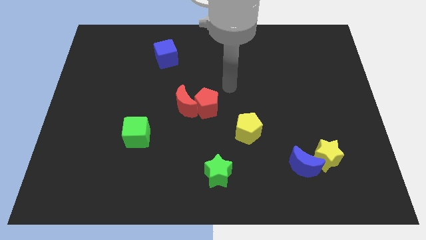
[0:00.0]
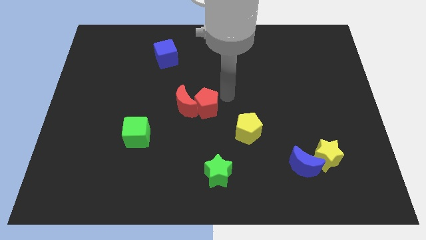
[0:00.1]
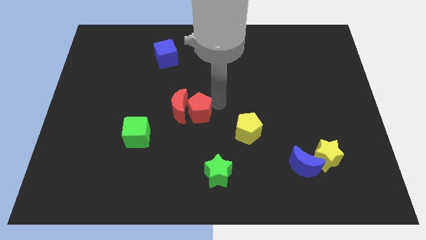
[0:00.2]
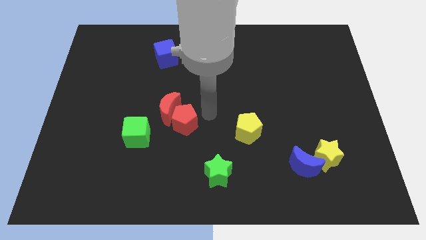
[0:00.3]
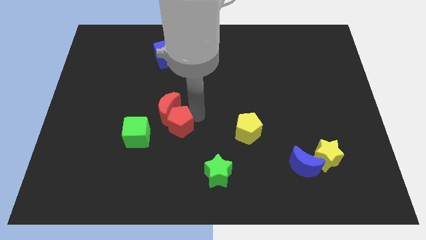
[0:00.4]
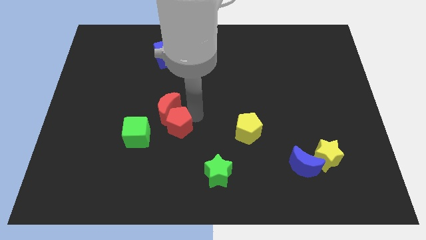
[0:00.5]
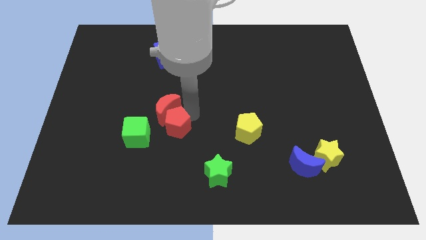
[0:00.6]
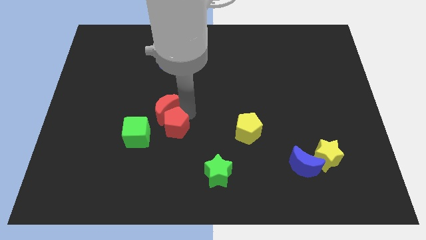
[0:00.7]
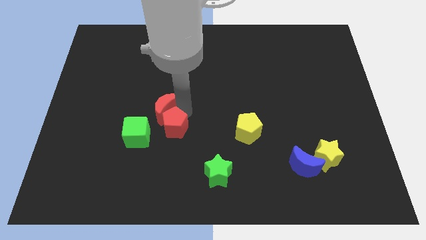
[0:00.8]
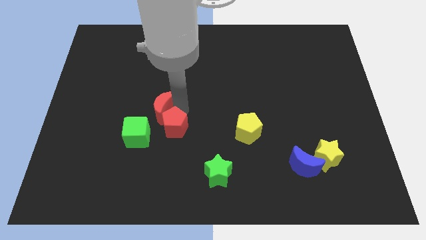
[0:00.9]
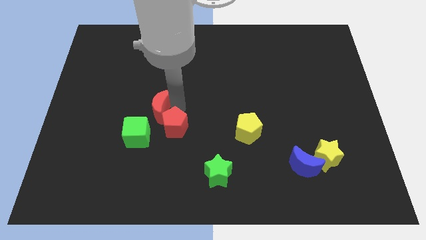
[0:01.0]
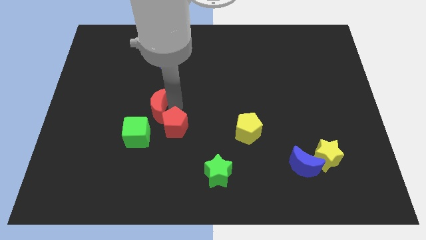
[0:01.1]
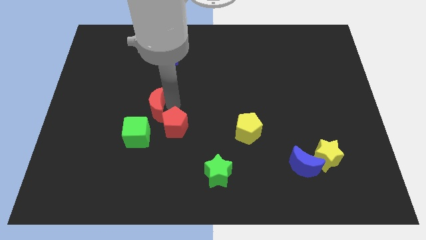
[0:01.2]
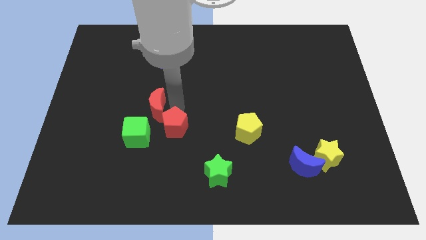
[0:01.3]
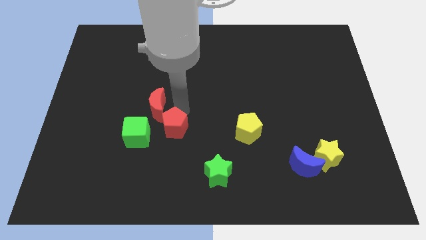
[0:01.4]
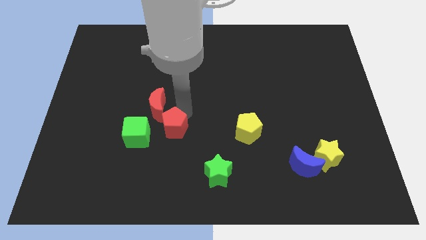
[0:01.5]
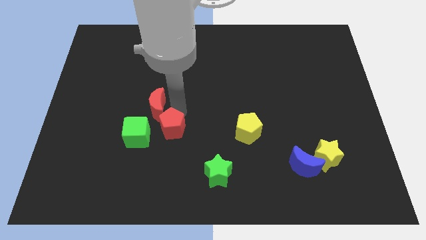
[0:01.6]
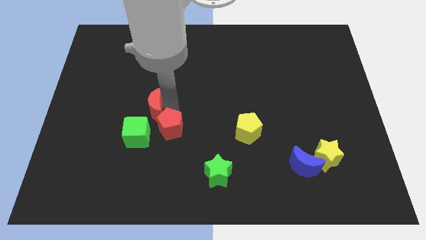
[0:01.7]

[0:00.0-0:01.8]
slightly move the red moon left

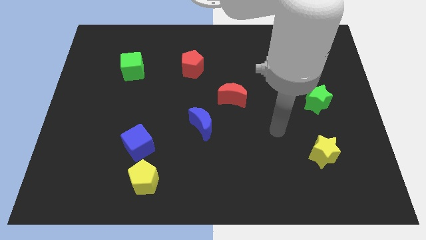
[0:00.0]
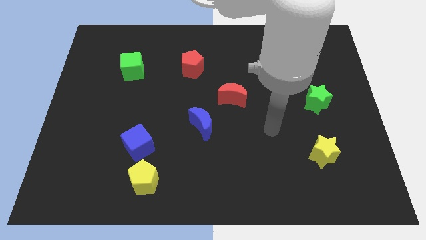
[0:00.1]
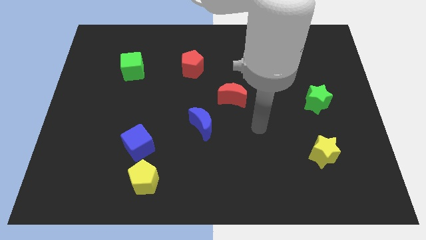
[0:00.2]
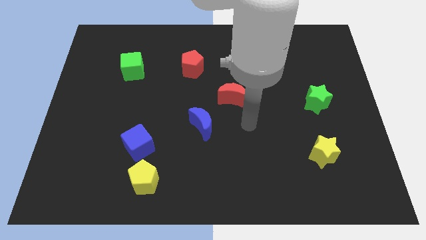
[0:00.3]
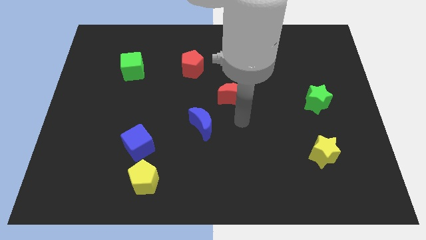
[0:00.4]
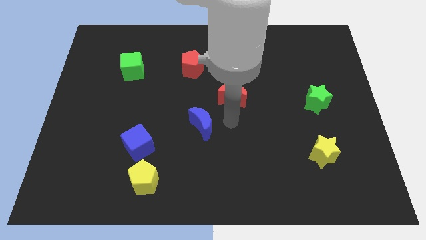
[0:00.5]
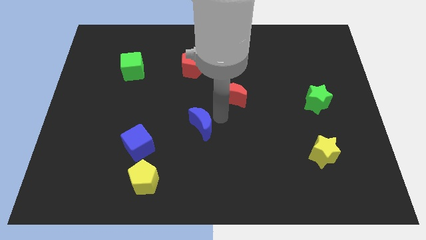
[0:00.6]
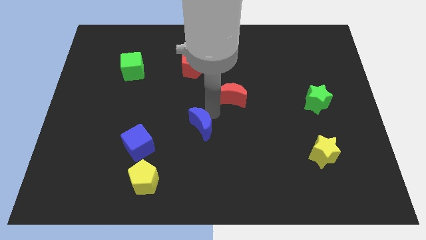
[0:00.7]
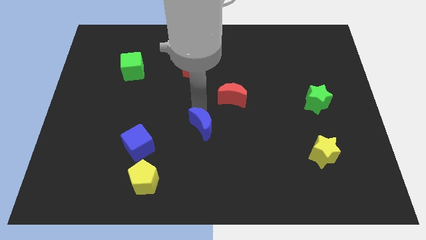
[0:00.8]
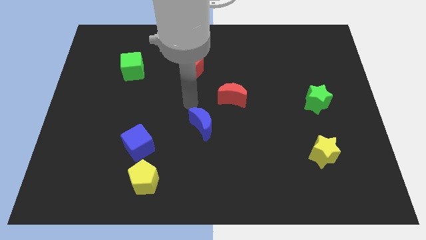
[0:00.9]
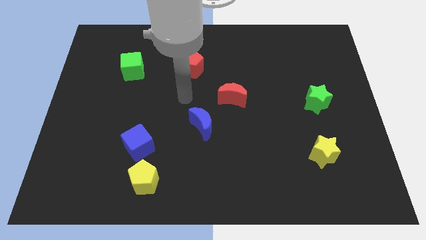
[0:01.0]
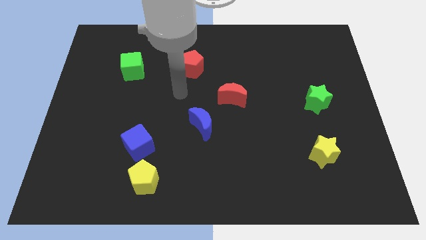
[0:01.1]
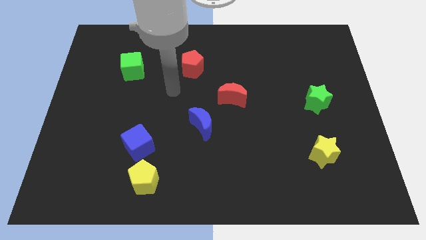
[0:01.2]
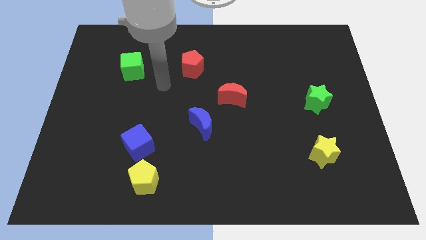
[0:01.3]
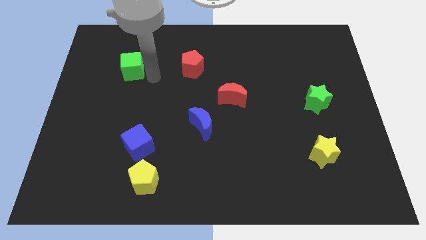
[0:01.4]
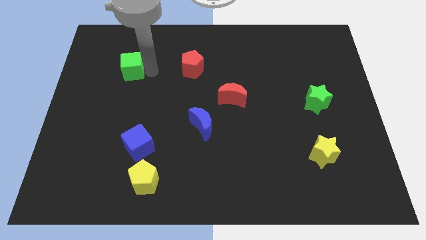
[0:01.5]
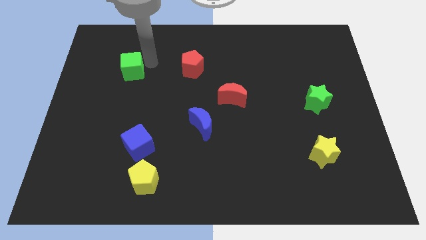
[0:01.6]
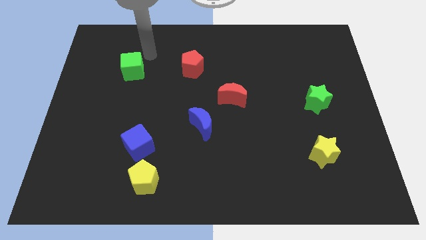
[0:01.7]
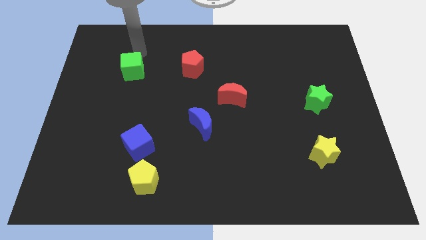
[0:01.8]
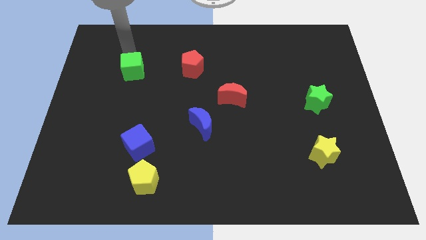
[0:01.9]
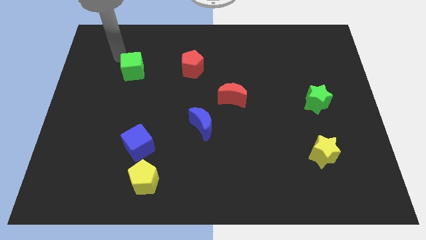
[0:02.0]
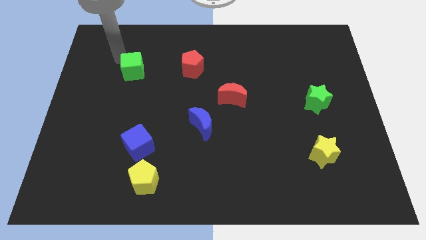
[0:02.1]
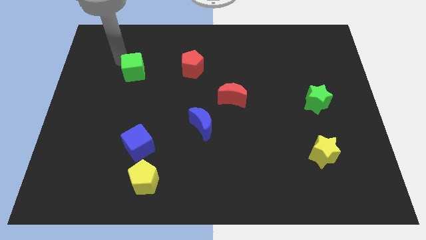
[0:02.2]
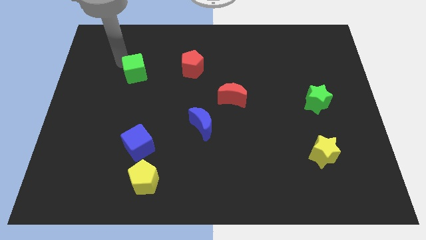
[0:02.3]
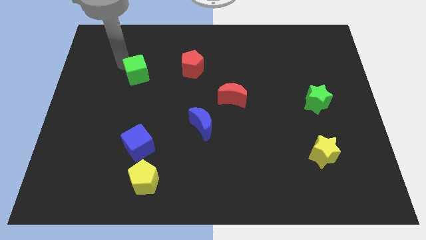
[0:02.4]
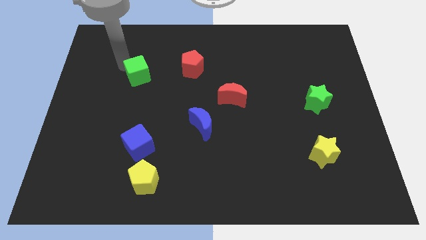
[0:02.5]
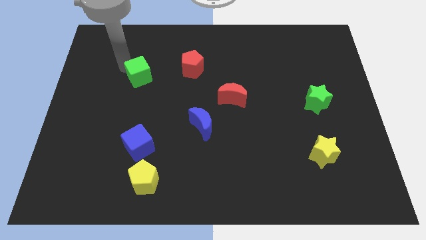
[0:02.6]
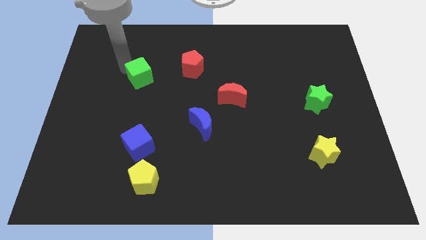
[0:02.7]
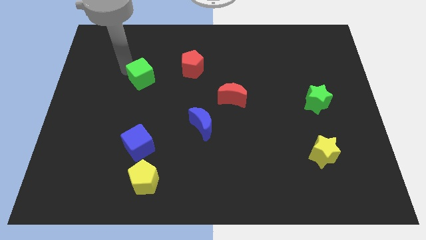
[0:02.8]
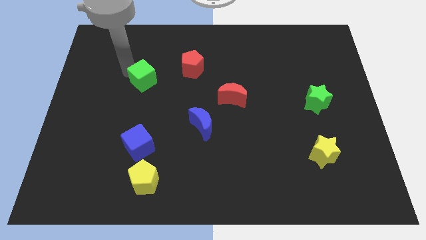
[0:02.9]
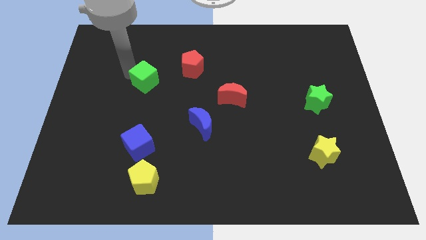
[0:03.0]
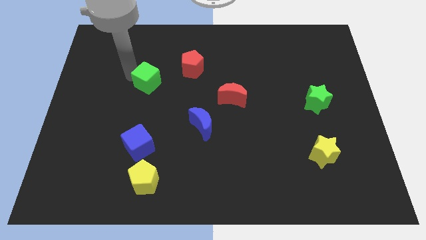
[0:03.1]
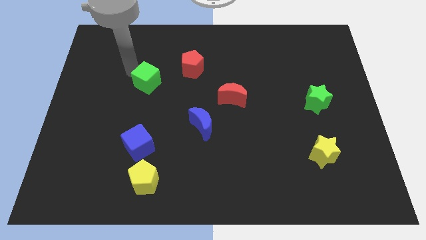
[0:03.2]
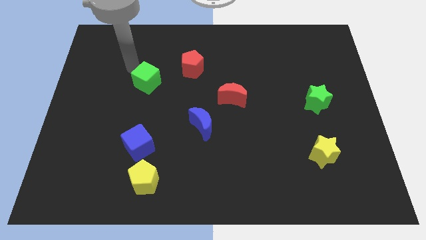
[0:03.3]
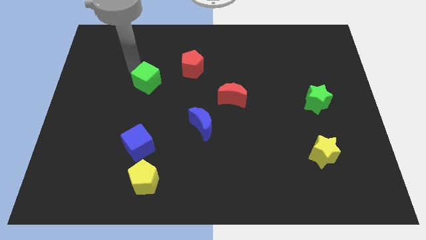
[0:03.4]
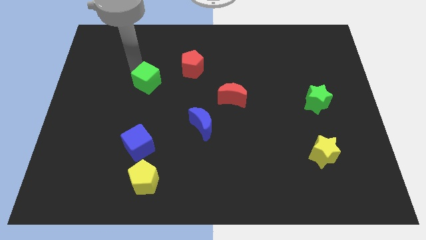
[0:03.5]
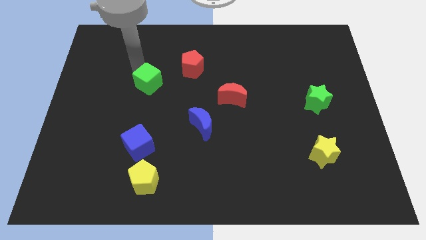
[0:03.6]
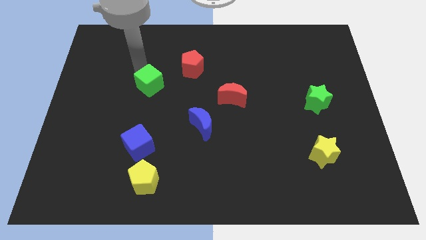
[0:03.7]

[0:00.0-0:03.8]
slightly move the green cube downwards and then right

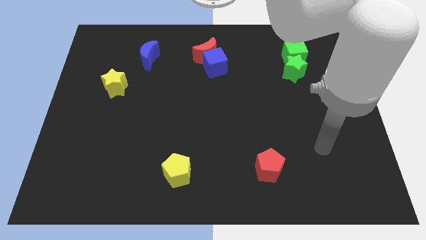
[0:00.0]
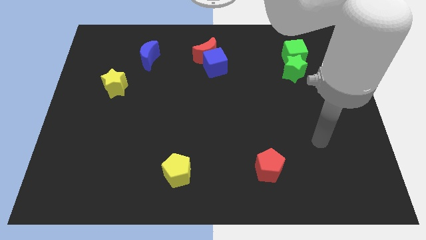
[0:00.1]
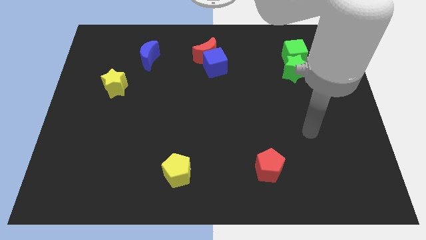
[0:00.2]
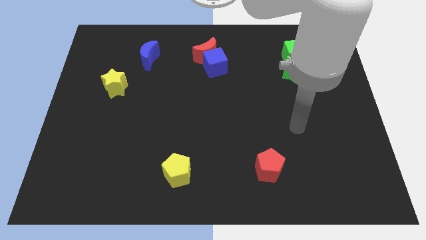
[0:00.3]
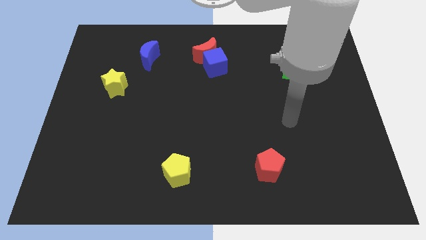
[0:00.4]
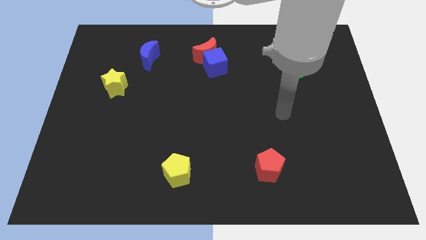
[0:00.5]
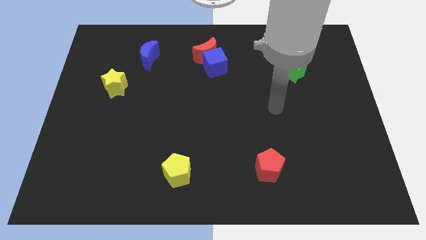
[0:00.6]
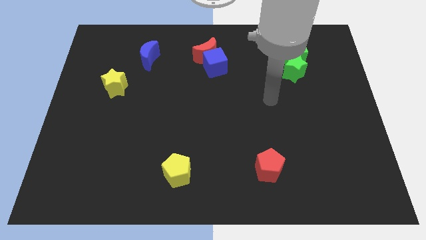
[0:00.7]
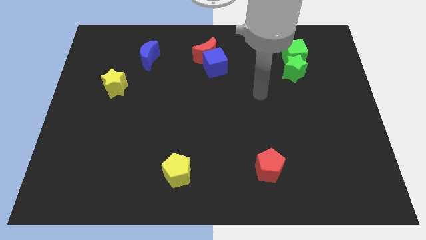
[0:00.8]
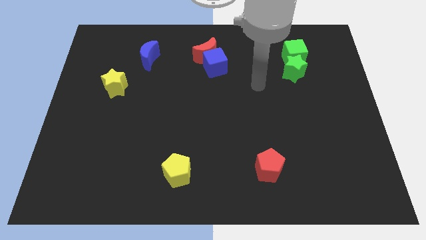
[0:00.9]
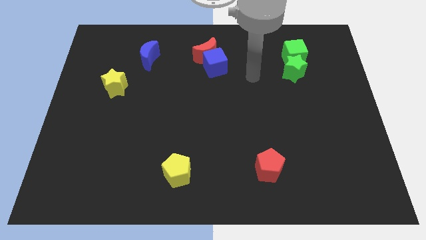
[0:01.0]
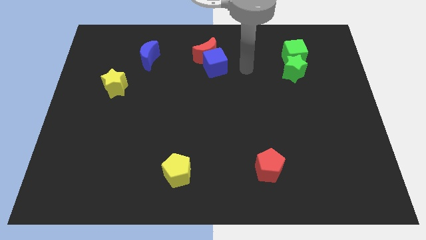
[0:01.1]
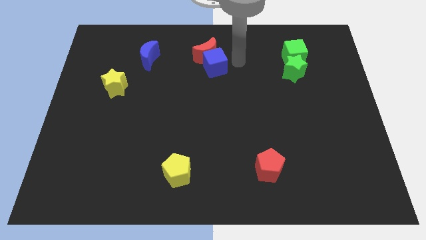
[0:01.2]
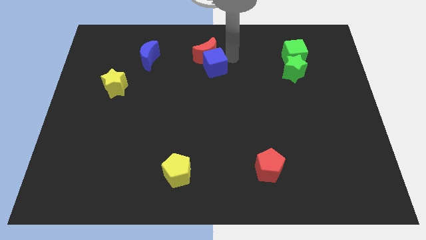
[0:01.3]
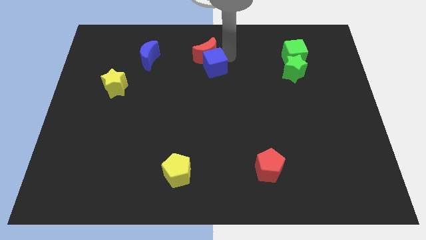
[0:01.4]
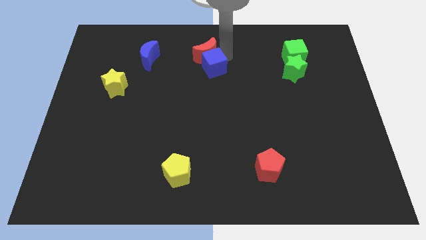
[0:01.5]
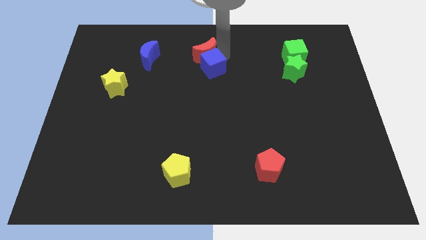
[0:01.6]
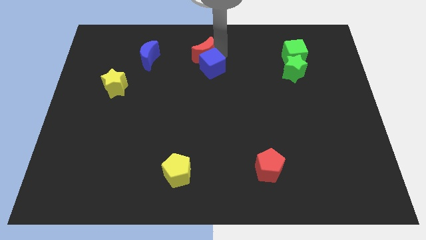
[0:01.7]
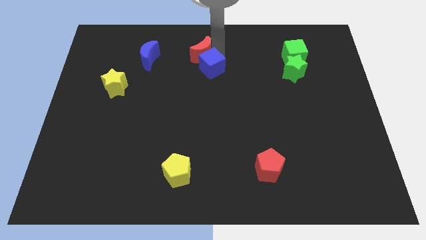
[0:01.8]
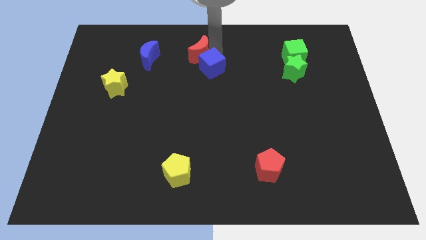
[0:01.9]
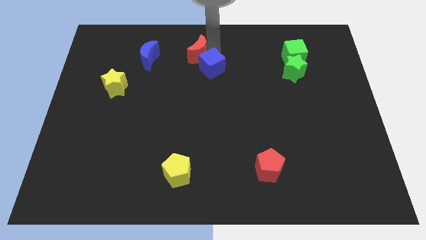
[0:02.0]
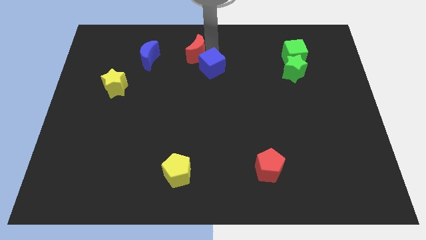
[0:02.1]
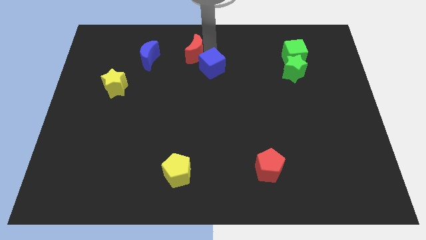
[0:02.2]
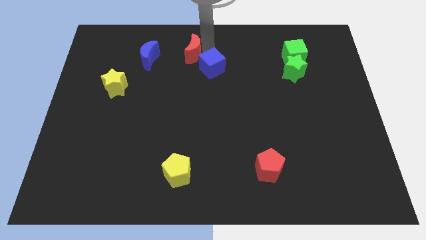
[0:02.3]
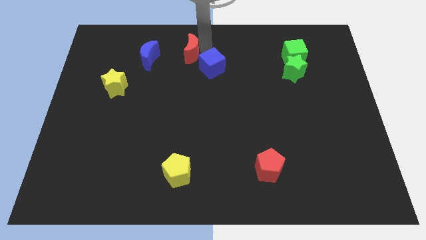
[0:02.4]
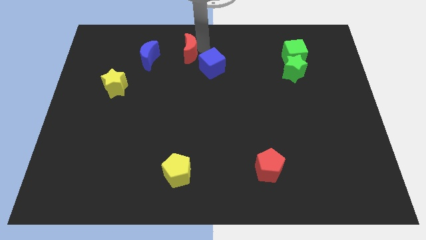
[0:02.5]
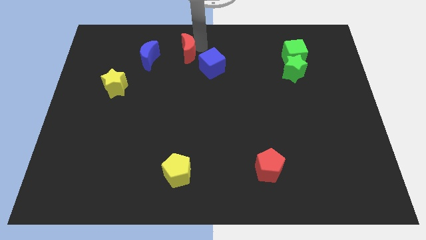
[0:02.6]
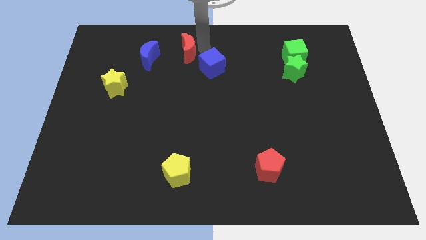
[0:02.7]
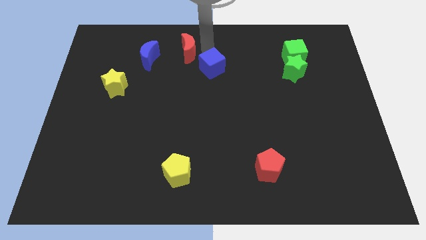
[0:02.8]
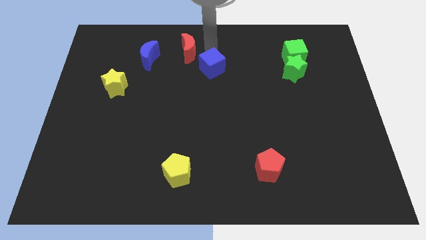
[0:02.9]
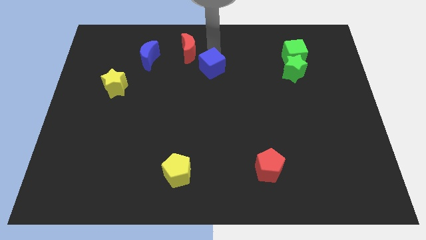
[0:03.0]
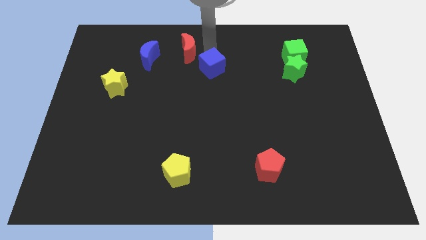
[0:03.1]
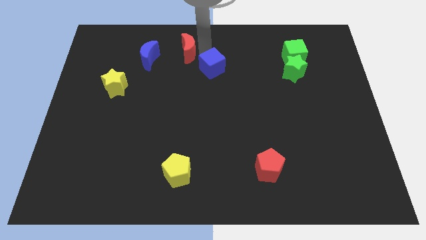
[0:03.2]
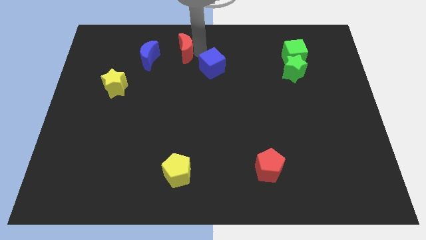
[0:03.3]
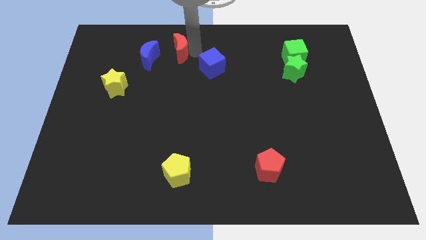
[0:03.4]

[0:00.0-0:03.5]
slightly move the red moon to the left
